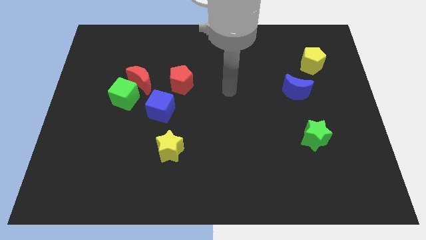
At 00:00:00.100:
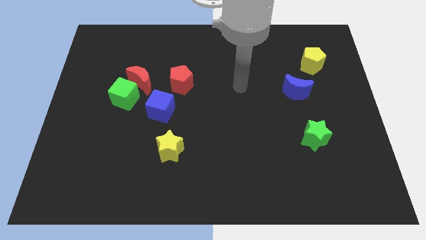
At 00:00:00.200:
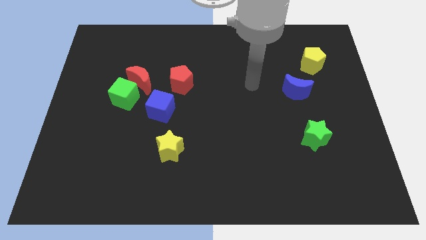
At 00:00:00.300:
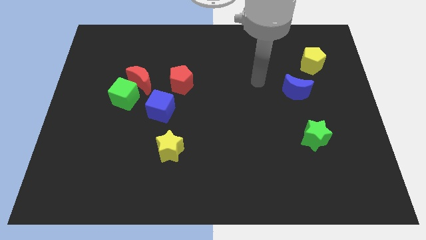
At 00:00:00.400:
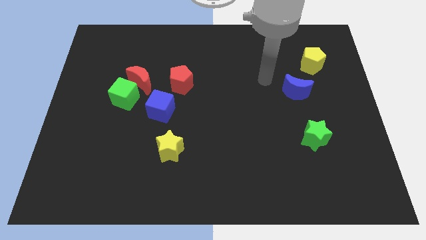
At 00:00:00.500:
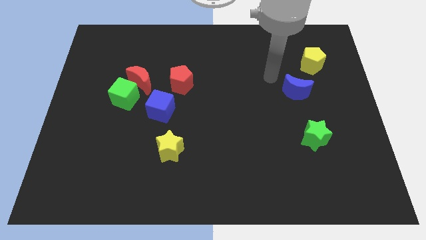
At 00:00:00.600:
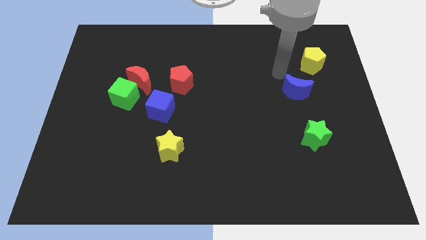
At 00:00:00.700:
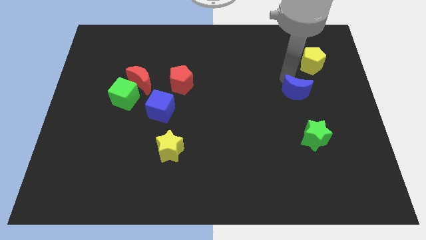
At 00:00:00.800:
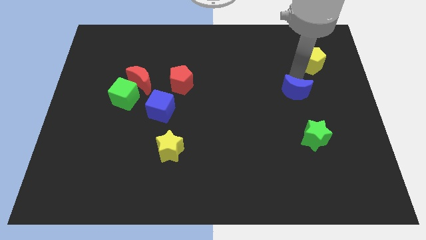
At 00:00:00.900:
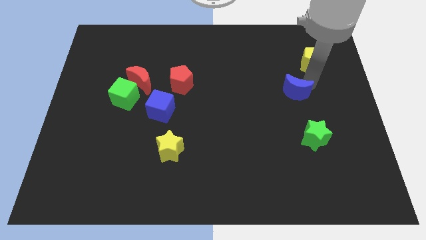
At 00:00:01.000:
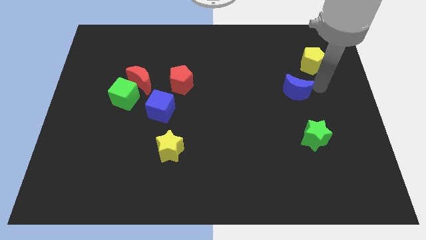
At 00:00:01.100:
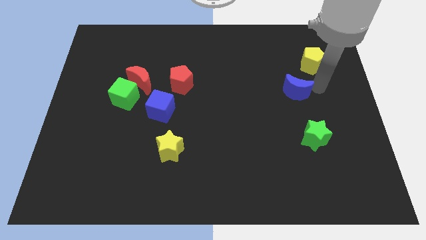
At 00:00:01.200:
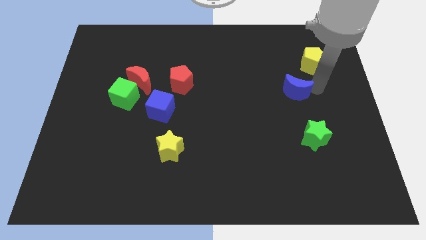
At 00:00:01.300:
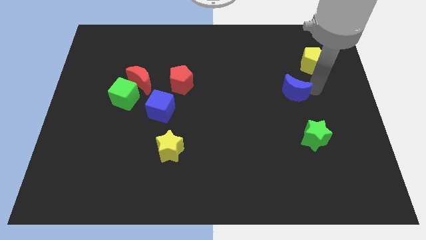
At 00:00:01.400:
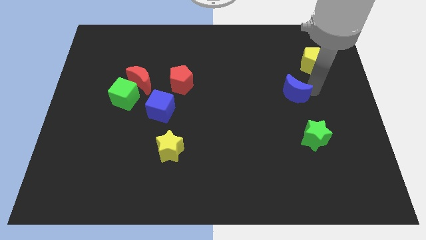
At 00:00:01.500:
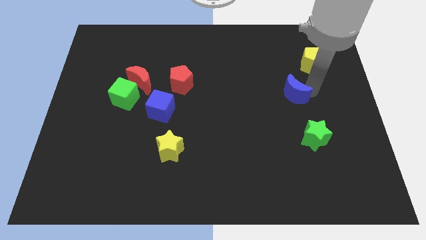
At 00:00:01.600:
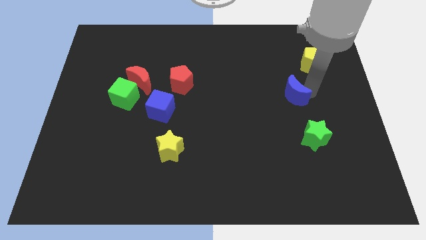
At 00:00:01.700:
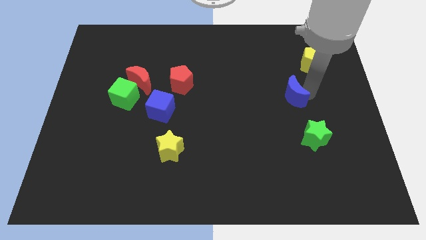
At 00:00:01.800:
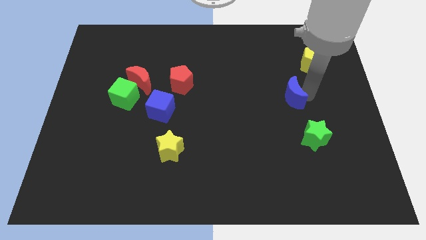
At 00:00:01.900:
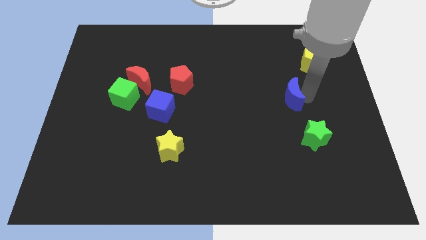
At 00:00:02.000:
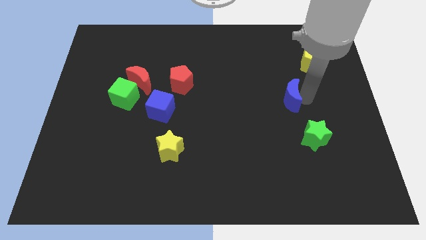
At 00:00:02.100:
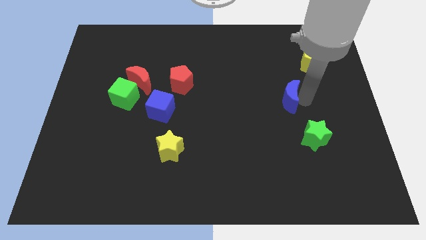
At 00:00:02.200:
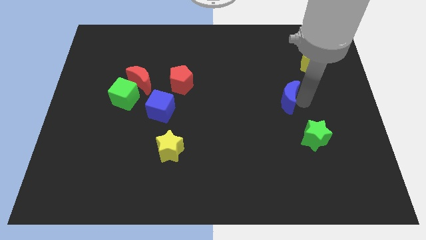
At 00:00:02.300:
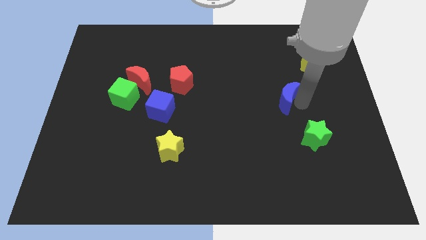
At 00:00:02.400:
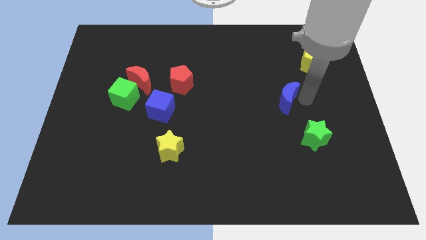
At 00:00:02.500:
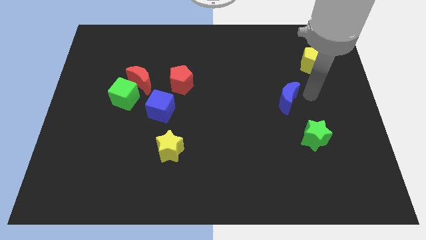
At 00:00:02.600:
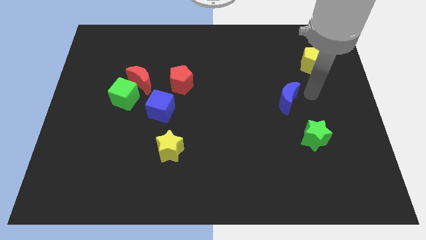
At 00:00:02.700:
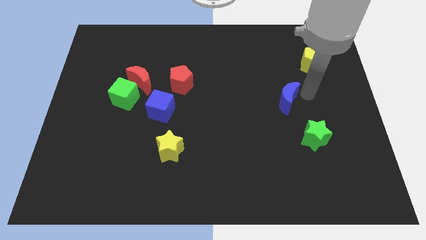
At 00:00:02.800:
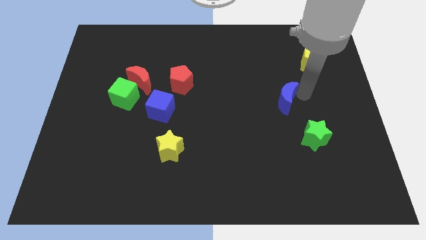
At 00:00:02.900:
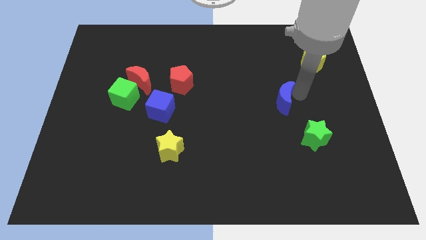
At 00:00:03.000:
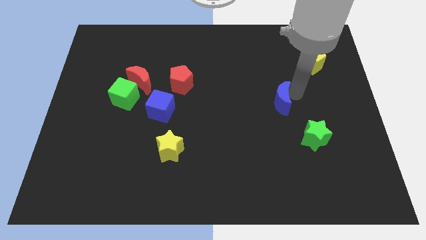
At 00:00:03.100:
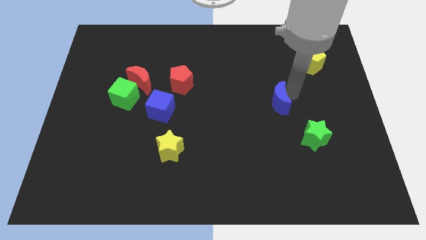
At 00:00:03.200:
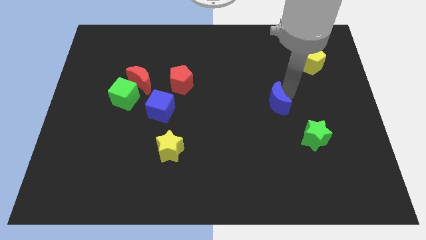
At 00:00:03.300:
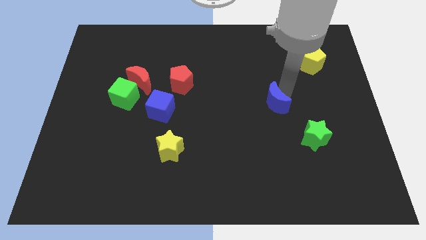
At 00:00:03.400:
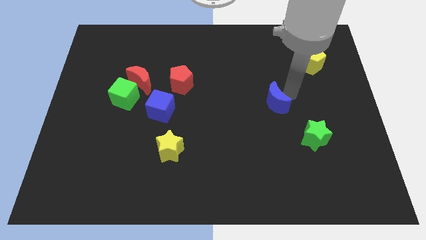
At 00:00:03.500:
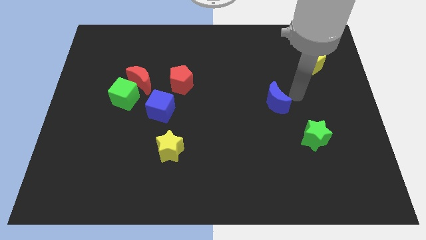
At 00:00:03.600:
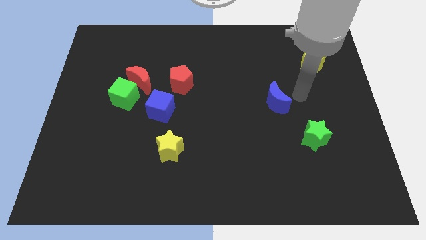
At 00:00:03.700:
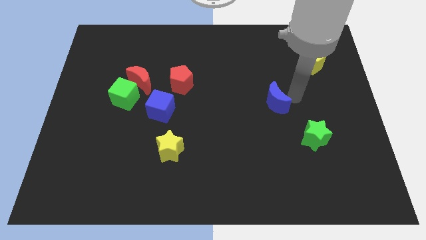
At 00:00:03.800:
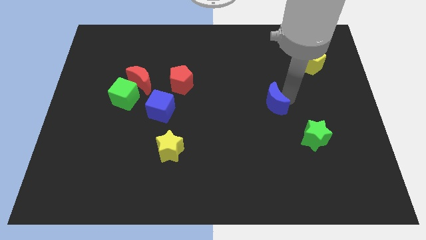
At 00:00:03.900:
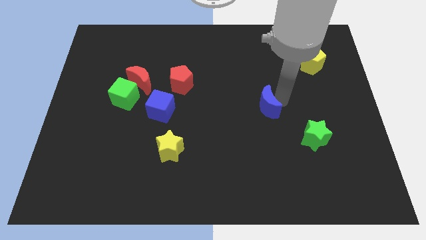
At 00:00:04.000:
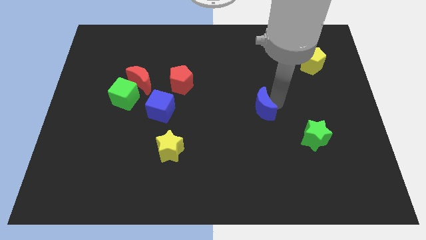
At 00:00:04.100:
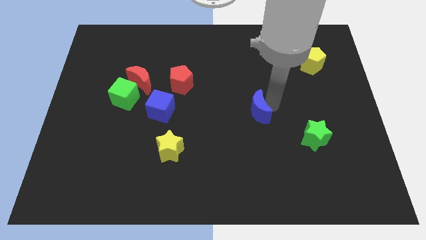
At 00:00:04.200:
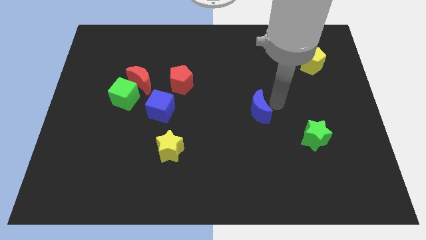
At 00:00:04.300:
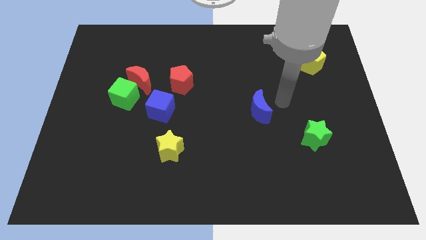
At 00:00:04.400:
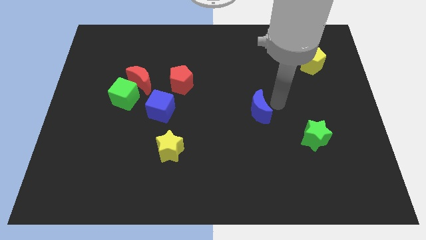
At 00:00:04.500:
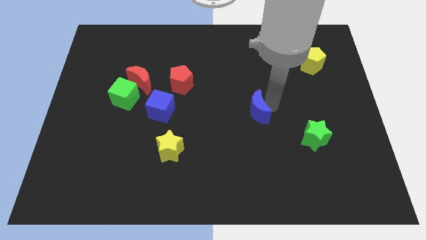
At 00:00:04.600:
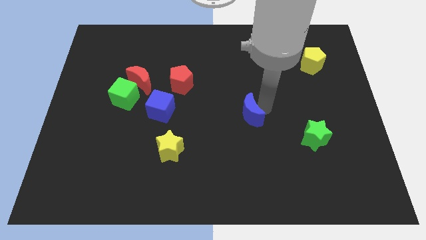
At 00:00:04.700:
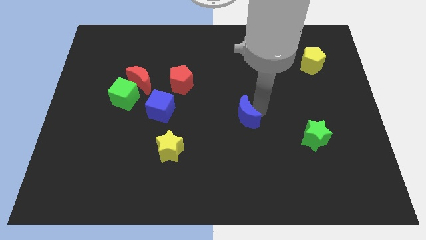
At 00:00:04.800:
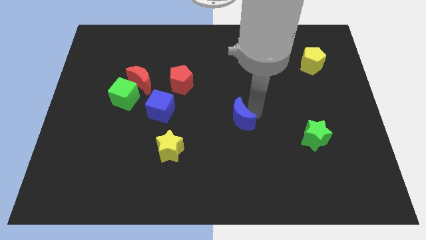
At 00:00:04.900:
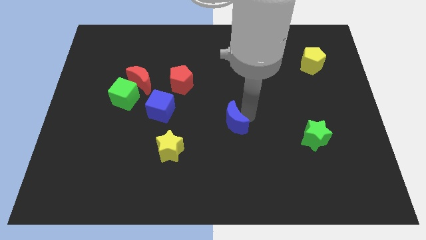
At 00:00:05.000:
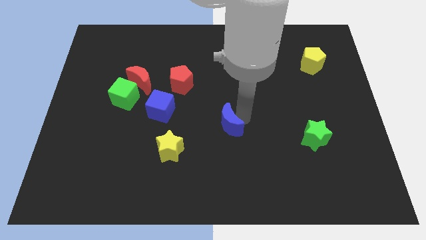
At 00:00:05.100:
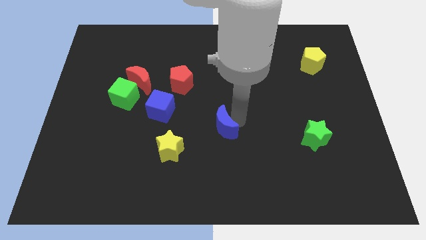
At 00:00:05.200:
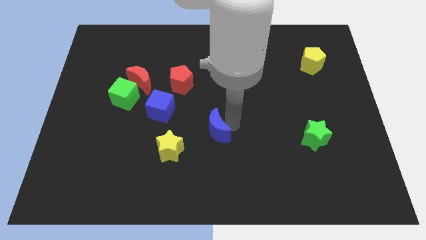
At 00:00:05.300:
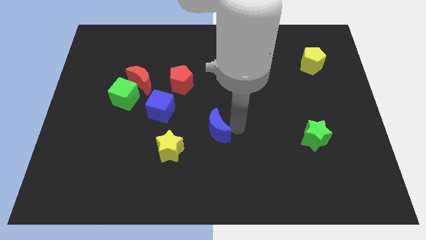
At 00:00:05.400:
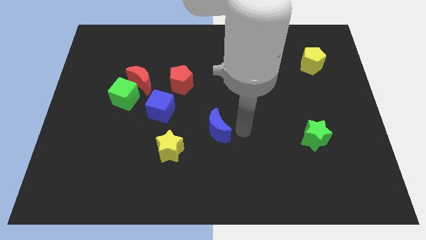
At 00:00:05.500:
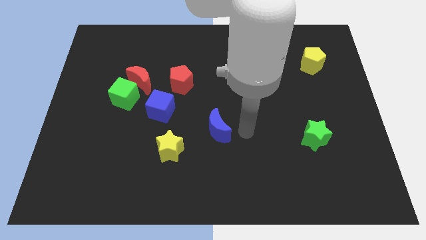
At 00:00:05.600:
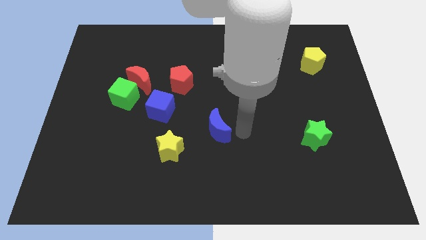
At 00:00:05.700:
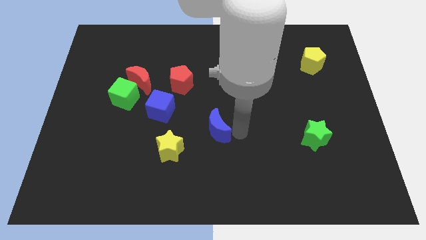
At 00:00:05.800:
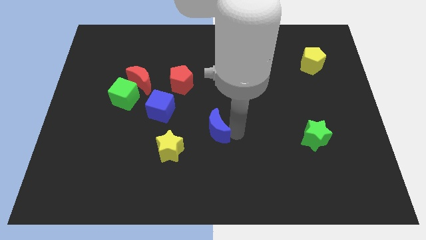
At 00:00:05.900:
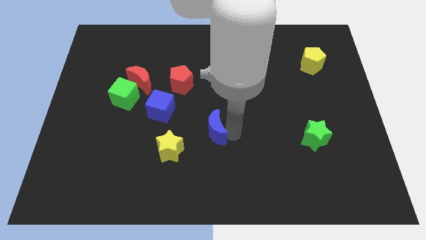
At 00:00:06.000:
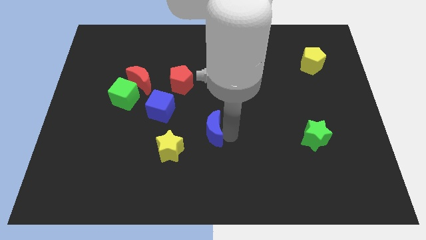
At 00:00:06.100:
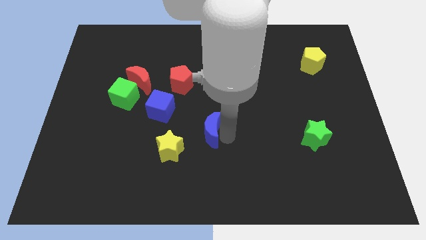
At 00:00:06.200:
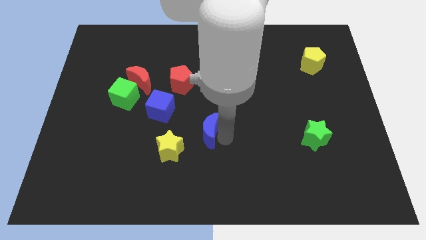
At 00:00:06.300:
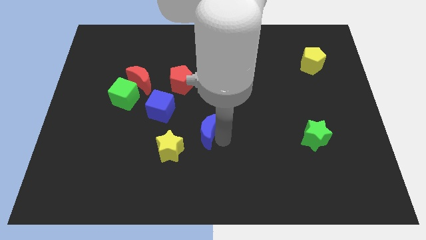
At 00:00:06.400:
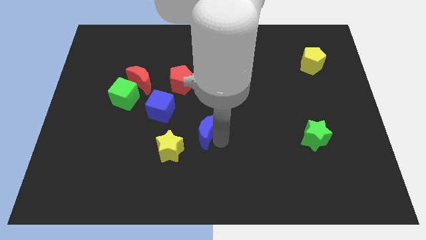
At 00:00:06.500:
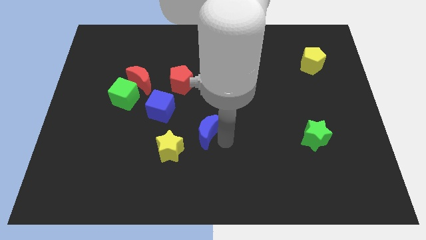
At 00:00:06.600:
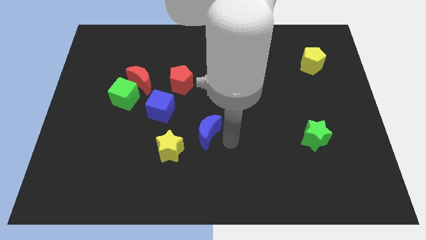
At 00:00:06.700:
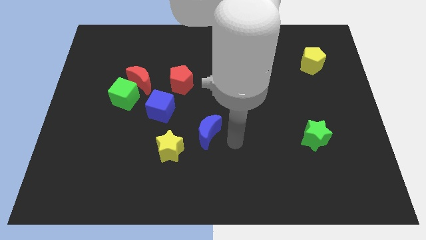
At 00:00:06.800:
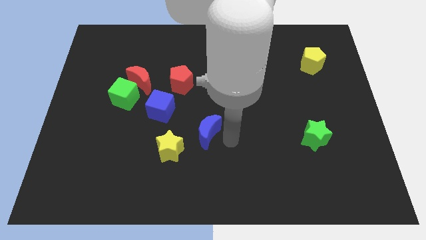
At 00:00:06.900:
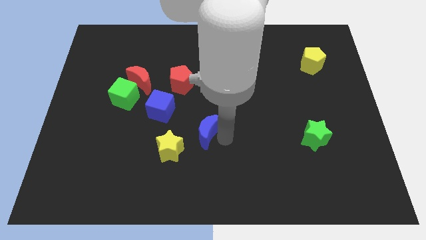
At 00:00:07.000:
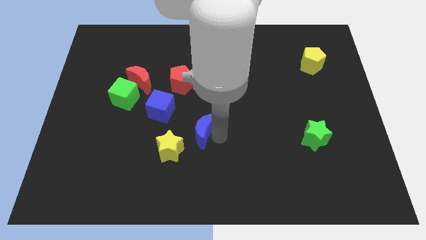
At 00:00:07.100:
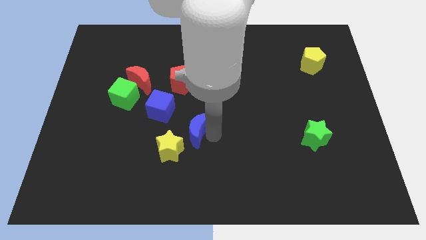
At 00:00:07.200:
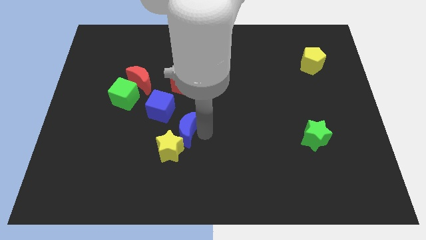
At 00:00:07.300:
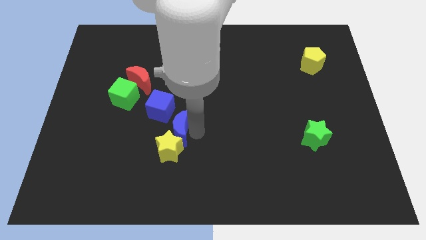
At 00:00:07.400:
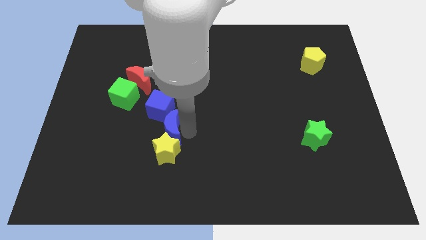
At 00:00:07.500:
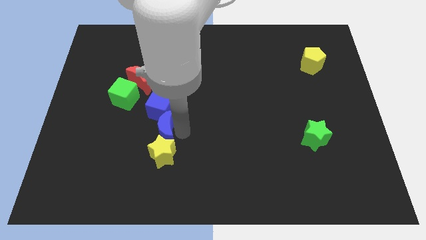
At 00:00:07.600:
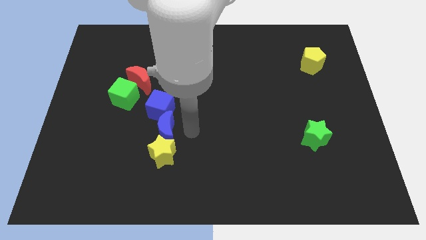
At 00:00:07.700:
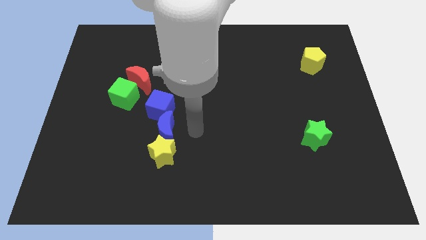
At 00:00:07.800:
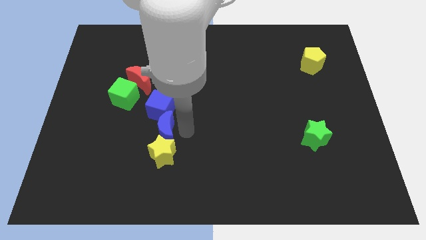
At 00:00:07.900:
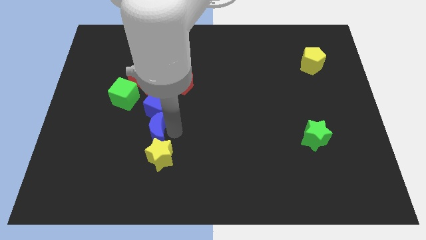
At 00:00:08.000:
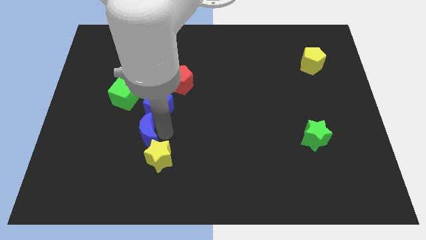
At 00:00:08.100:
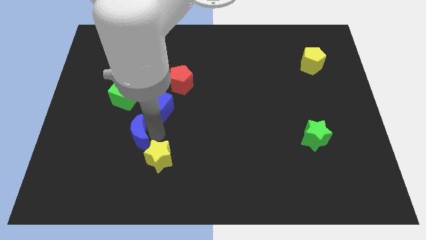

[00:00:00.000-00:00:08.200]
put the blue moon below the green cube
